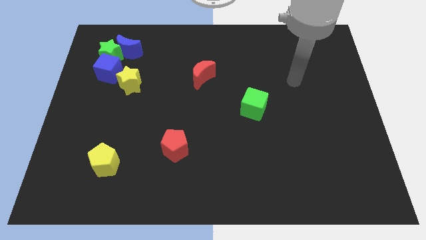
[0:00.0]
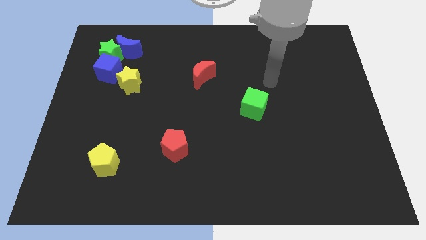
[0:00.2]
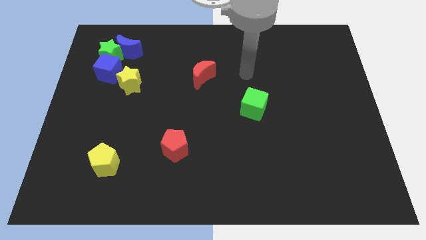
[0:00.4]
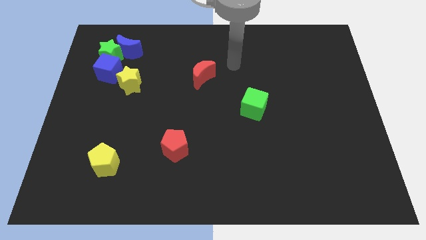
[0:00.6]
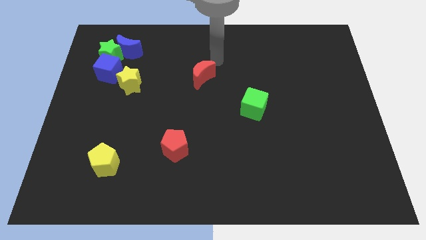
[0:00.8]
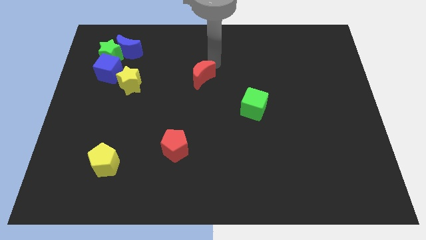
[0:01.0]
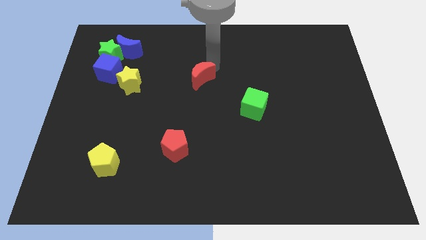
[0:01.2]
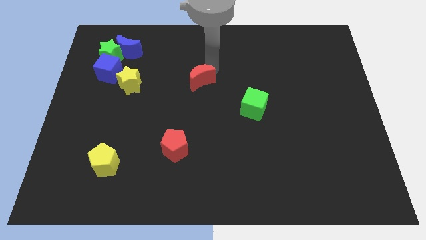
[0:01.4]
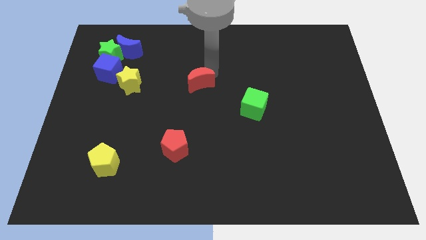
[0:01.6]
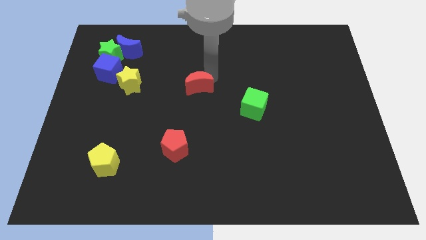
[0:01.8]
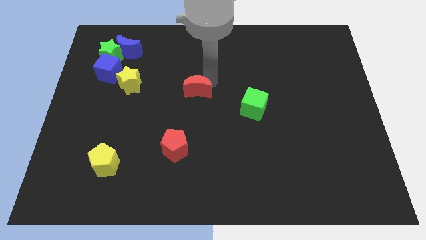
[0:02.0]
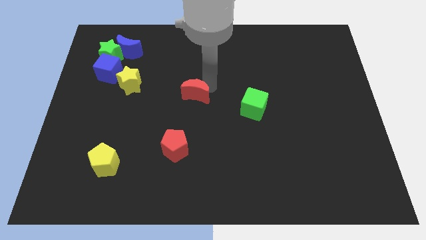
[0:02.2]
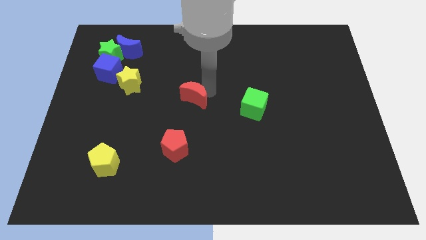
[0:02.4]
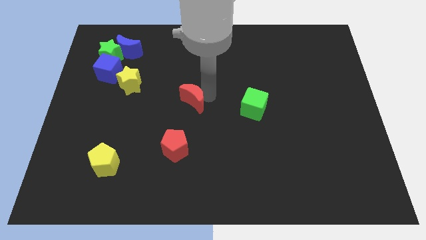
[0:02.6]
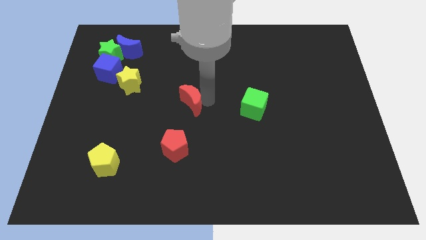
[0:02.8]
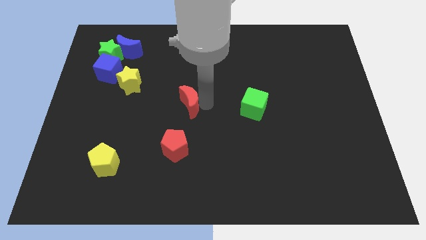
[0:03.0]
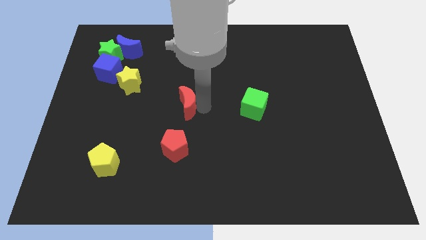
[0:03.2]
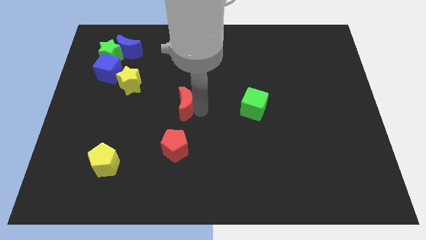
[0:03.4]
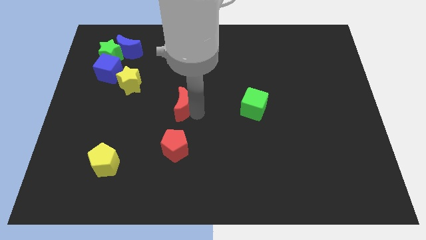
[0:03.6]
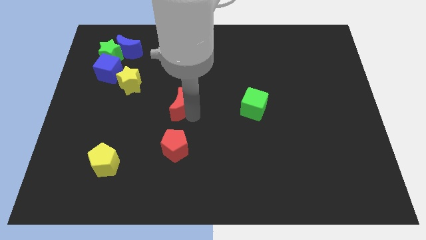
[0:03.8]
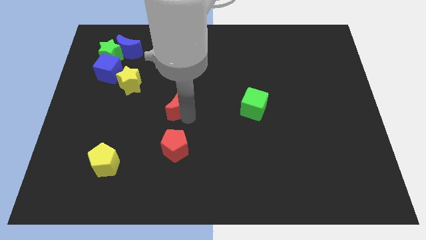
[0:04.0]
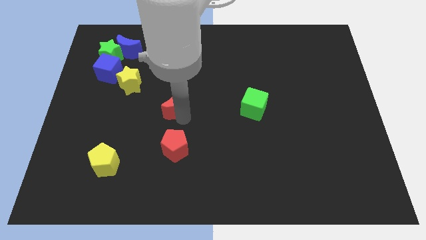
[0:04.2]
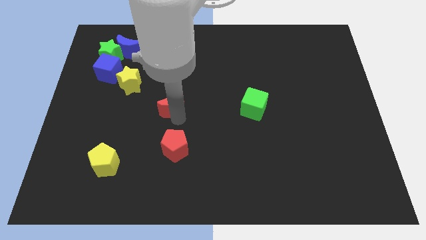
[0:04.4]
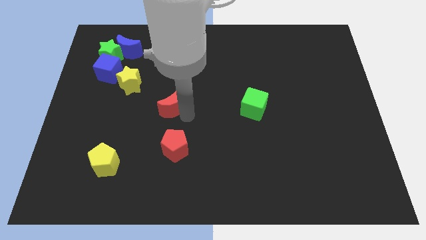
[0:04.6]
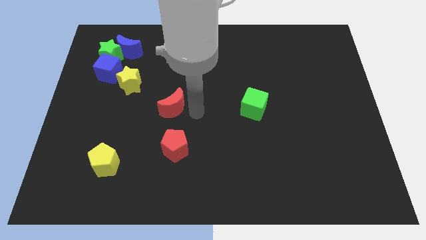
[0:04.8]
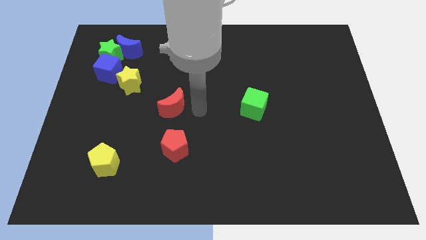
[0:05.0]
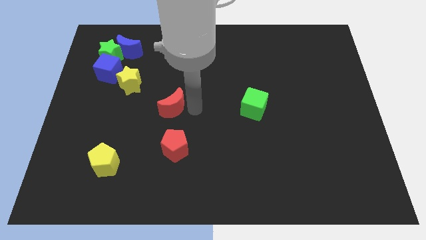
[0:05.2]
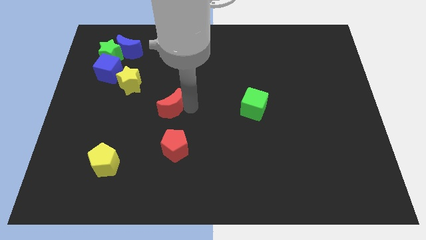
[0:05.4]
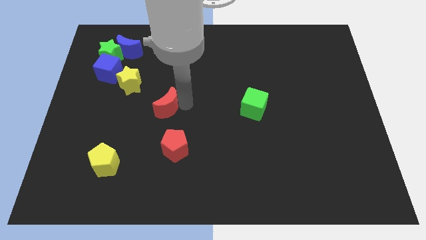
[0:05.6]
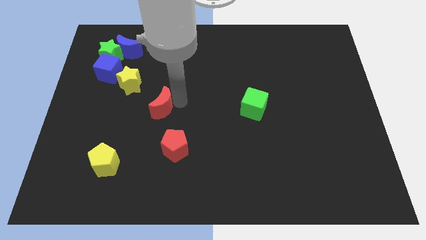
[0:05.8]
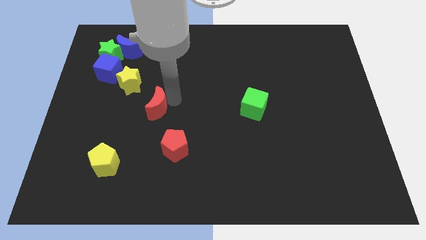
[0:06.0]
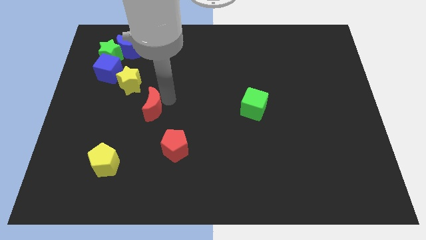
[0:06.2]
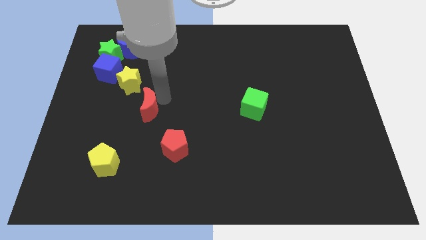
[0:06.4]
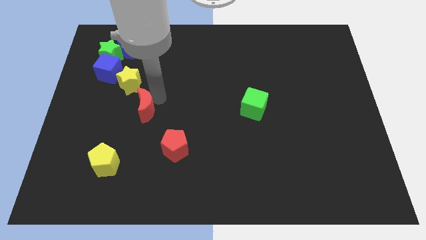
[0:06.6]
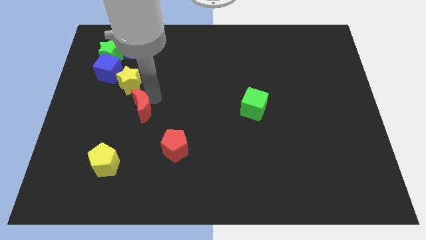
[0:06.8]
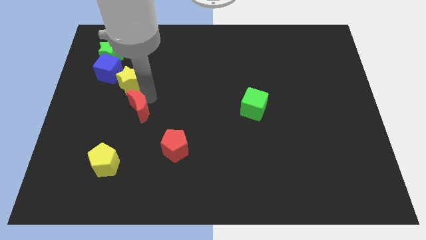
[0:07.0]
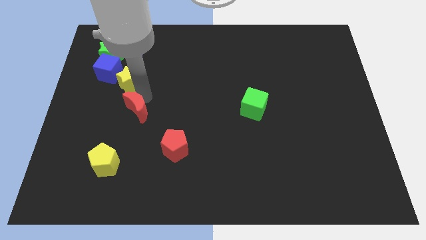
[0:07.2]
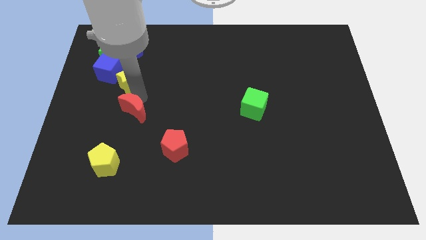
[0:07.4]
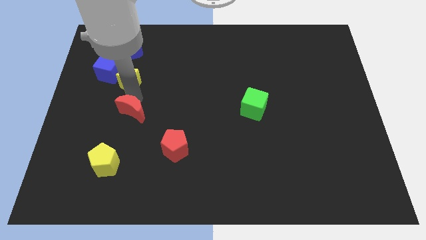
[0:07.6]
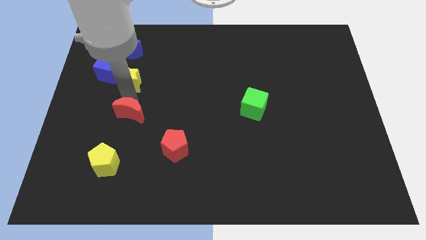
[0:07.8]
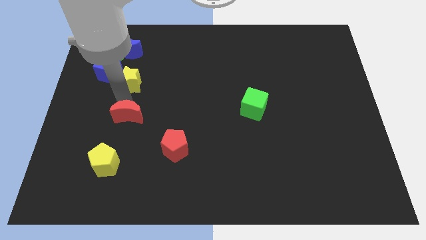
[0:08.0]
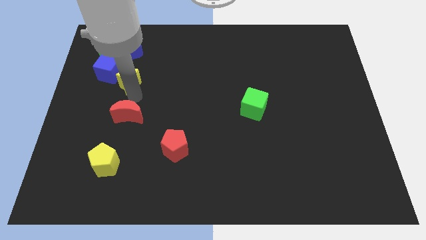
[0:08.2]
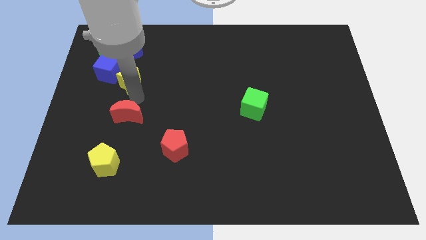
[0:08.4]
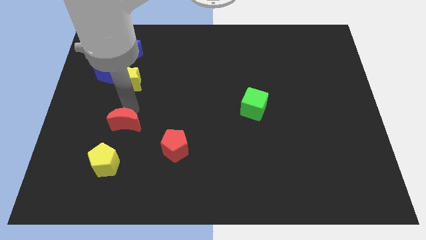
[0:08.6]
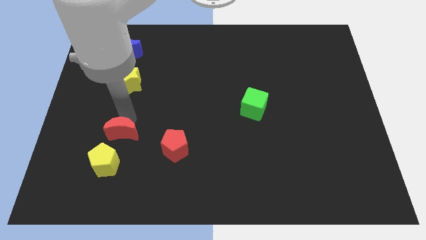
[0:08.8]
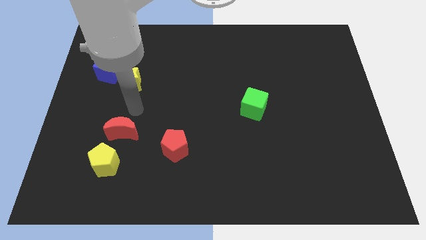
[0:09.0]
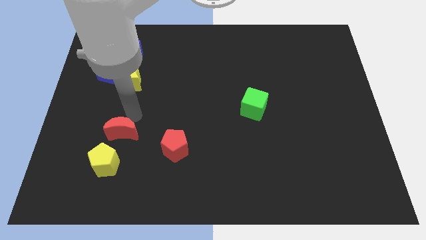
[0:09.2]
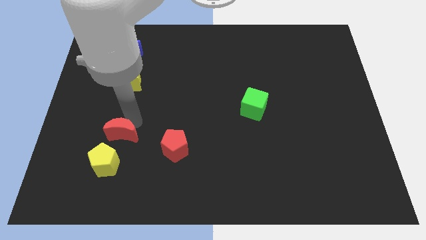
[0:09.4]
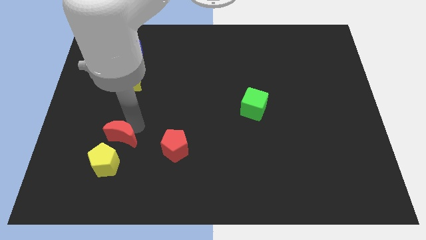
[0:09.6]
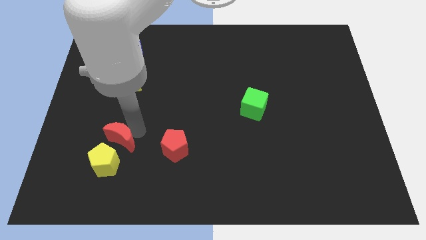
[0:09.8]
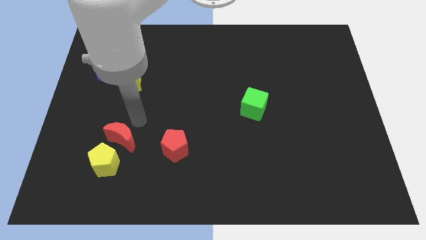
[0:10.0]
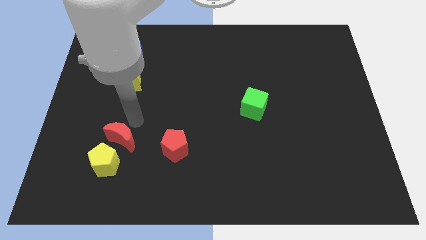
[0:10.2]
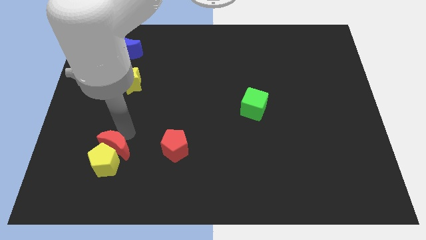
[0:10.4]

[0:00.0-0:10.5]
put the red moon next to the yellow pentagon

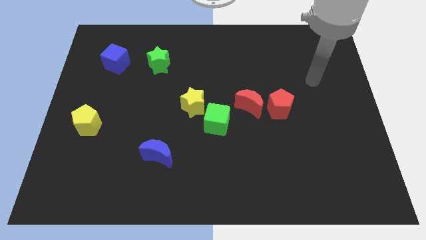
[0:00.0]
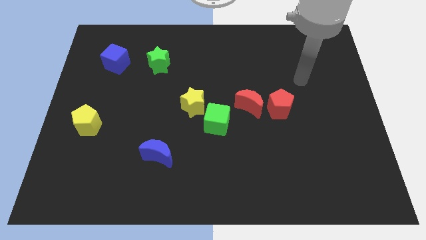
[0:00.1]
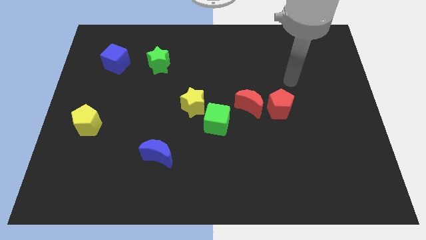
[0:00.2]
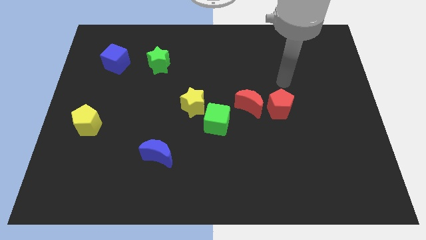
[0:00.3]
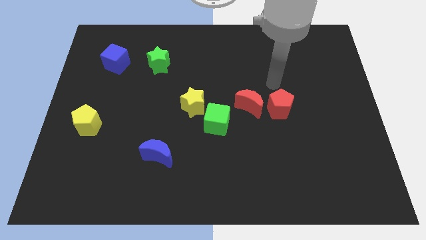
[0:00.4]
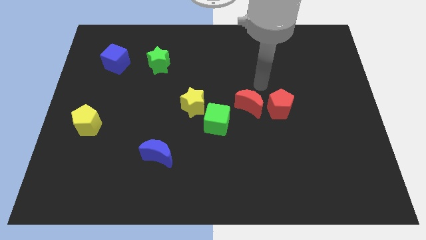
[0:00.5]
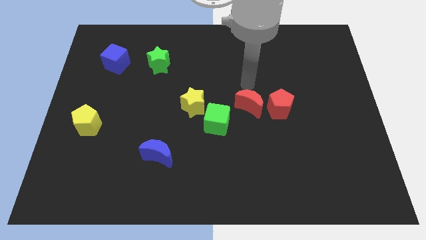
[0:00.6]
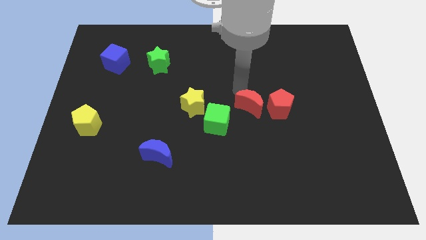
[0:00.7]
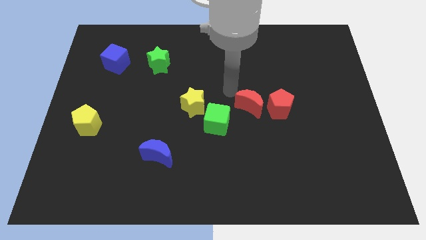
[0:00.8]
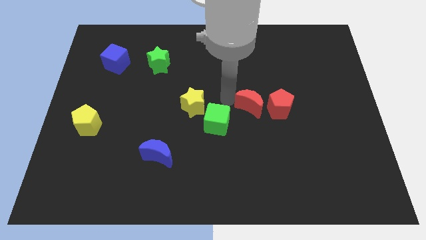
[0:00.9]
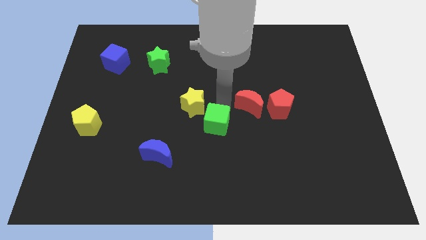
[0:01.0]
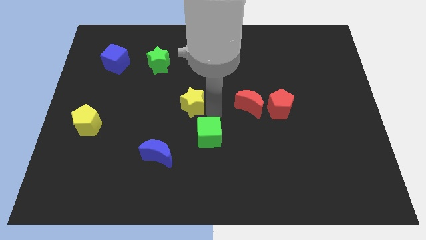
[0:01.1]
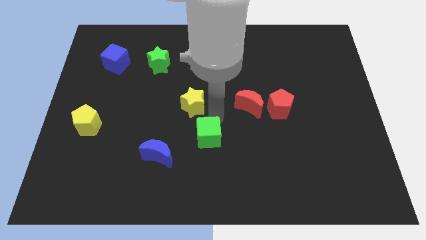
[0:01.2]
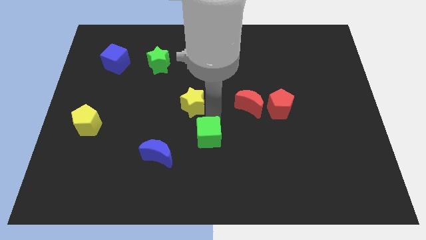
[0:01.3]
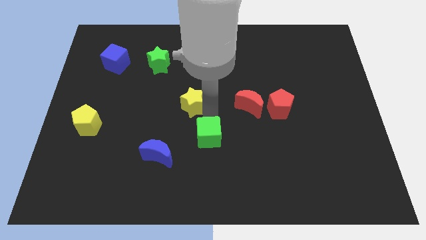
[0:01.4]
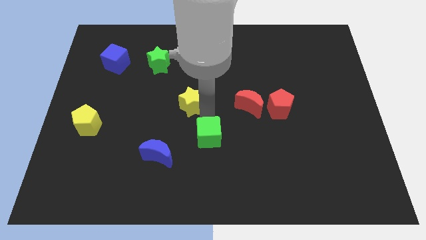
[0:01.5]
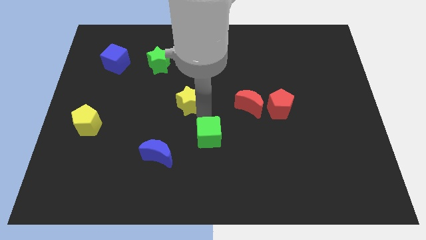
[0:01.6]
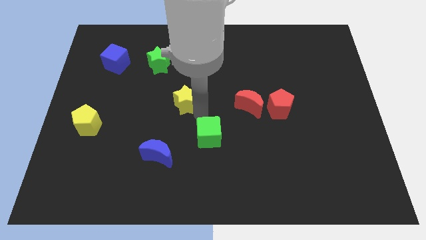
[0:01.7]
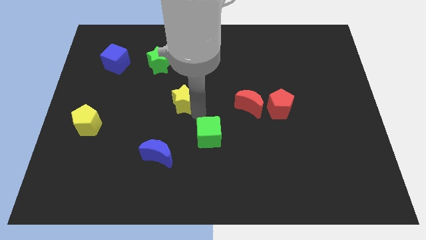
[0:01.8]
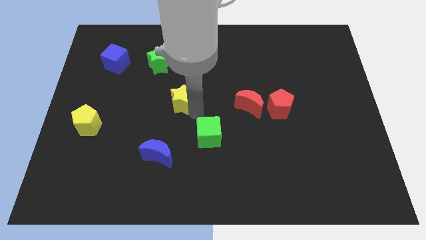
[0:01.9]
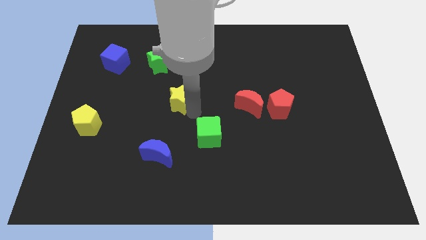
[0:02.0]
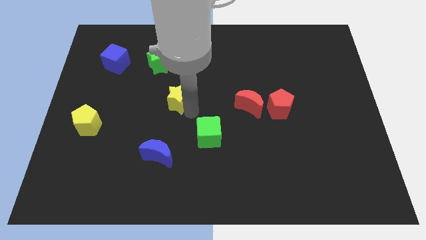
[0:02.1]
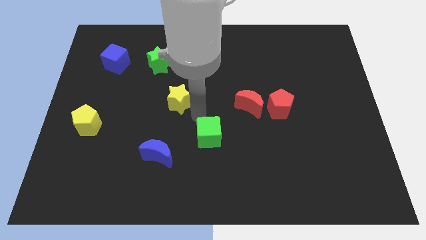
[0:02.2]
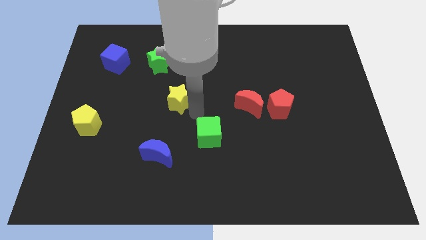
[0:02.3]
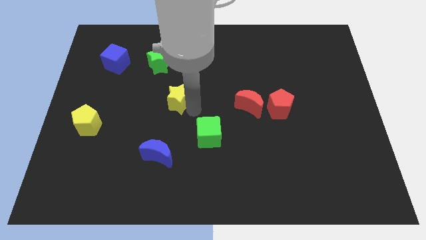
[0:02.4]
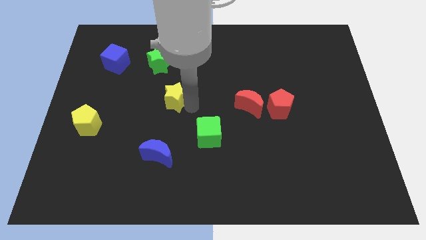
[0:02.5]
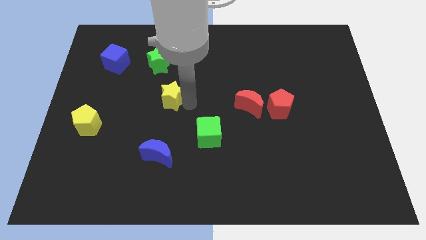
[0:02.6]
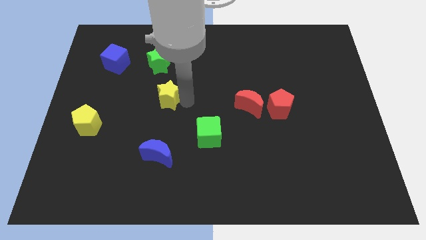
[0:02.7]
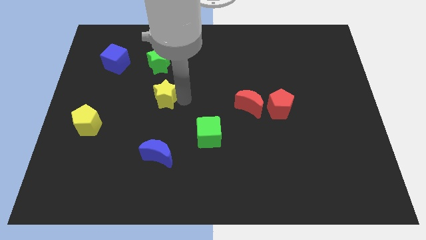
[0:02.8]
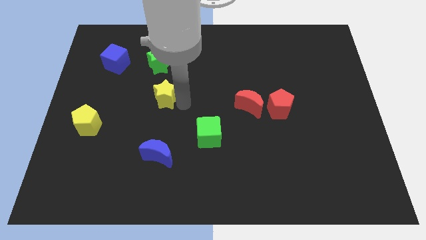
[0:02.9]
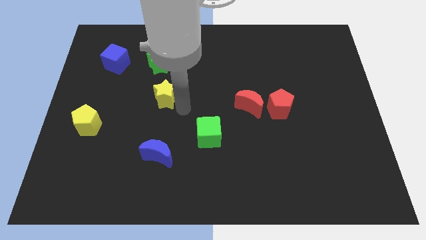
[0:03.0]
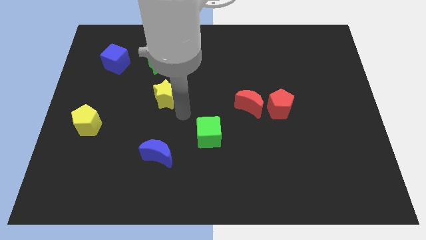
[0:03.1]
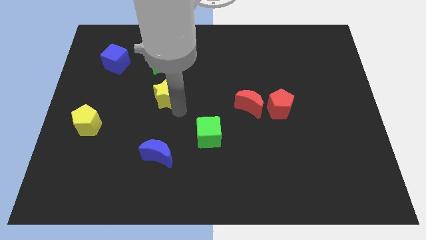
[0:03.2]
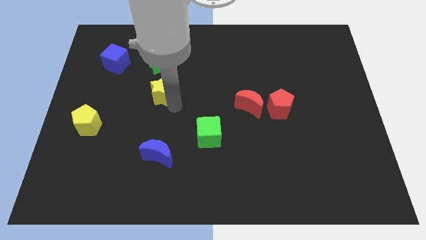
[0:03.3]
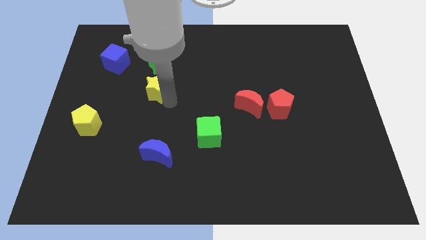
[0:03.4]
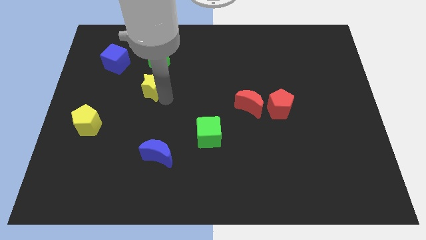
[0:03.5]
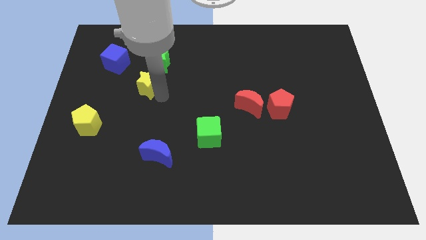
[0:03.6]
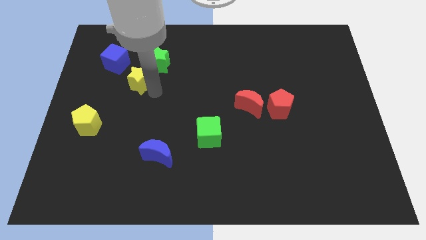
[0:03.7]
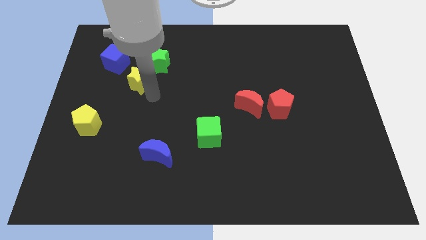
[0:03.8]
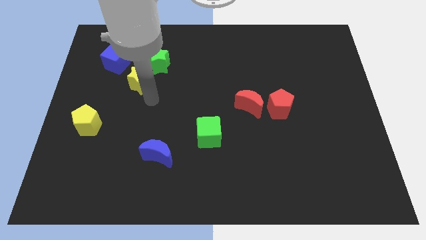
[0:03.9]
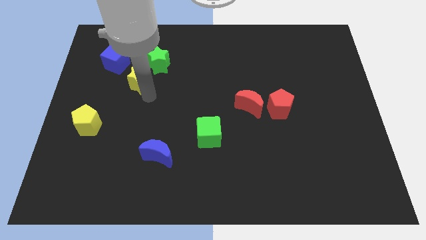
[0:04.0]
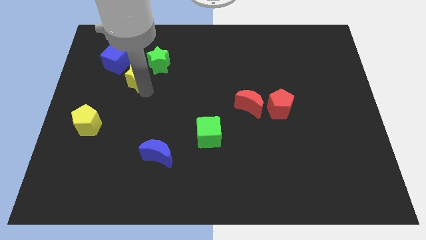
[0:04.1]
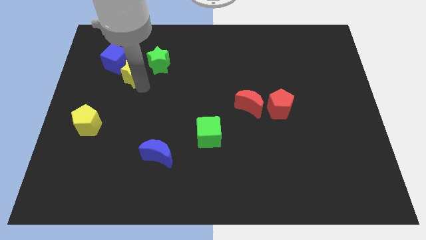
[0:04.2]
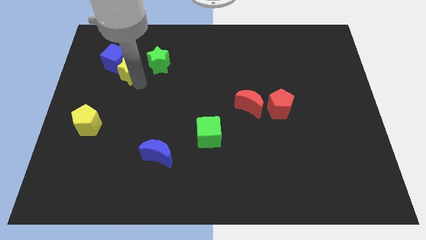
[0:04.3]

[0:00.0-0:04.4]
put the yellow star close to the blue cube
